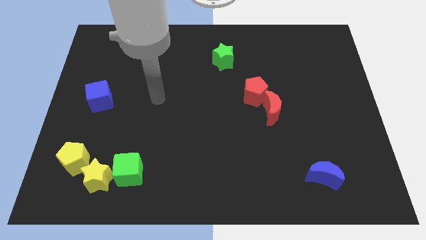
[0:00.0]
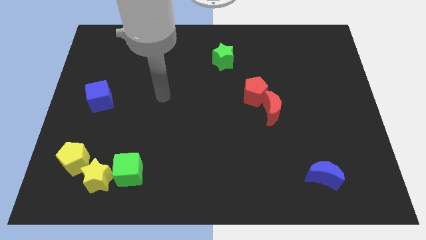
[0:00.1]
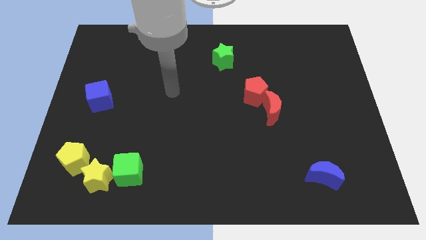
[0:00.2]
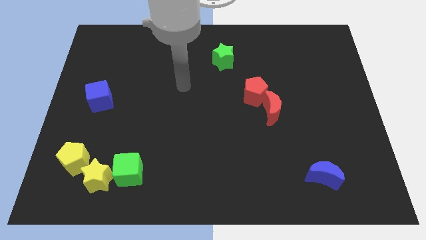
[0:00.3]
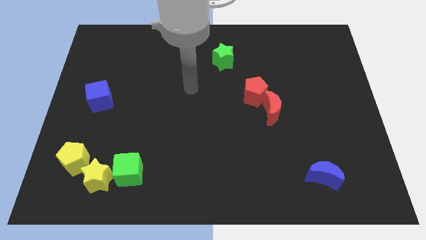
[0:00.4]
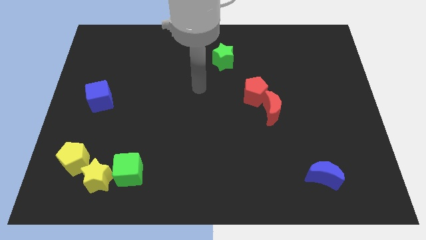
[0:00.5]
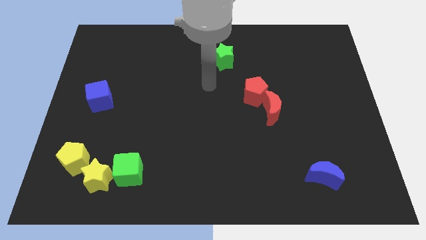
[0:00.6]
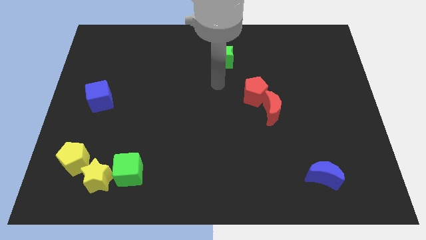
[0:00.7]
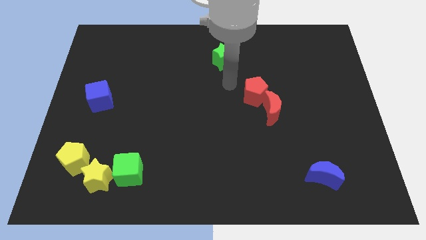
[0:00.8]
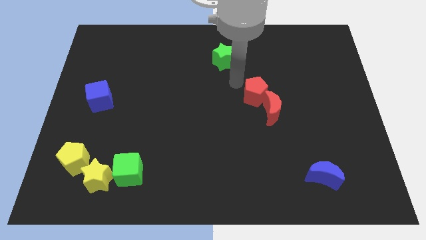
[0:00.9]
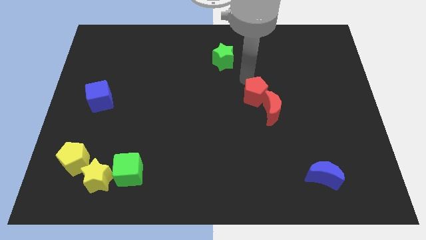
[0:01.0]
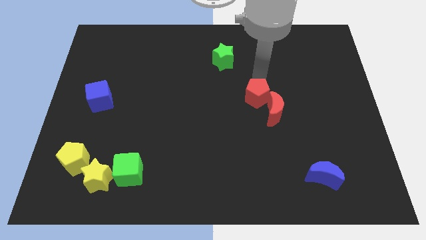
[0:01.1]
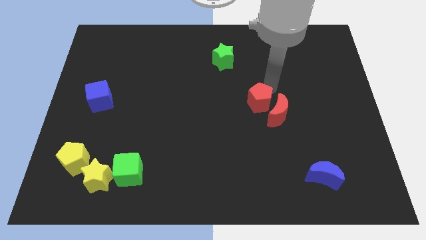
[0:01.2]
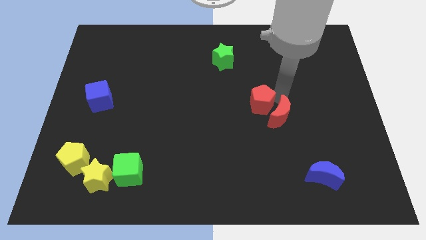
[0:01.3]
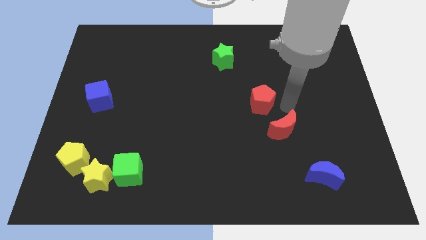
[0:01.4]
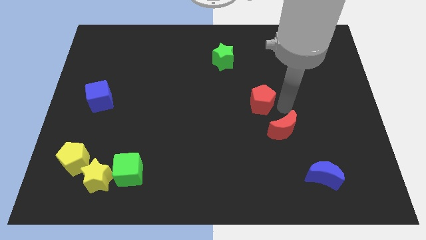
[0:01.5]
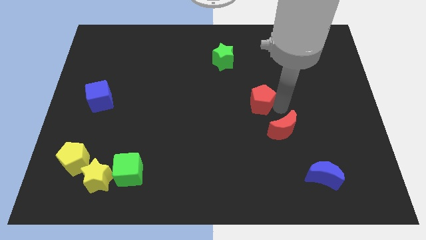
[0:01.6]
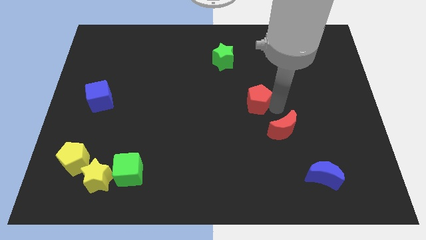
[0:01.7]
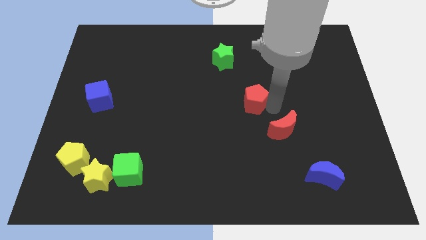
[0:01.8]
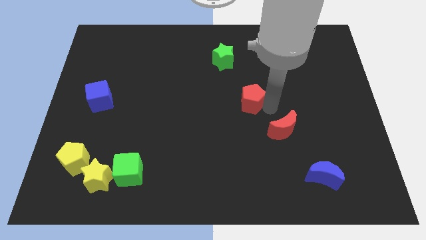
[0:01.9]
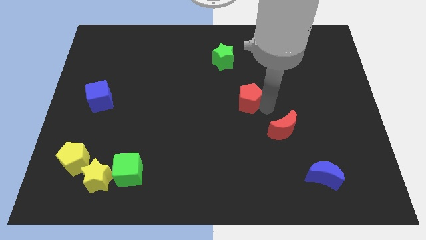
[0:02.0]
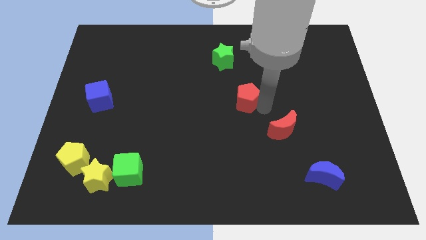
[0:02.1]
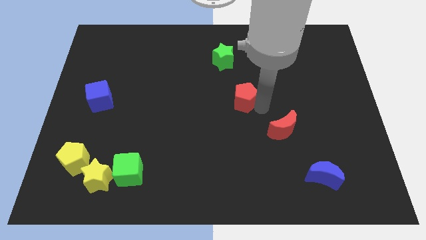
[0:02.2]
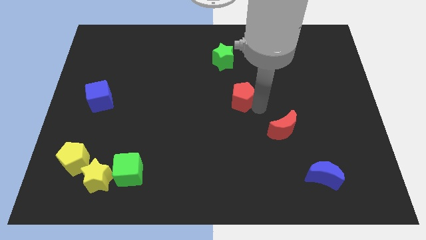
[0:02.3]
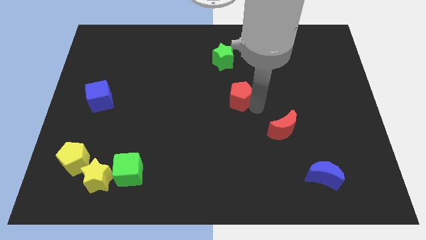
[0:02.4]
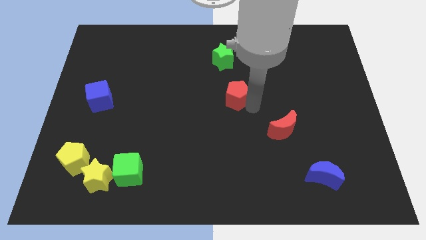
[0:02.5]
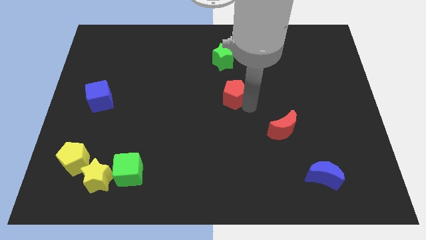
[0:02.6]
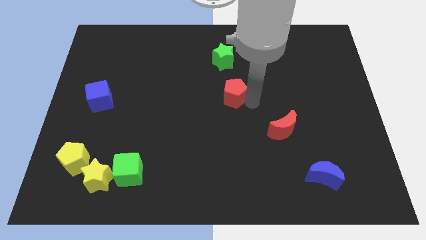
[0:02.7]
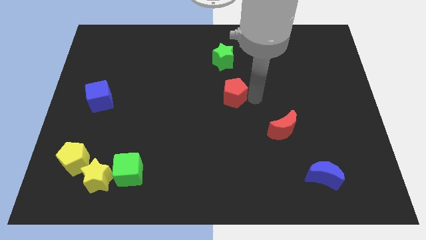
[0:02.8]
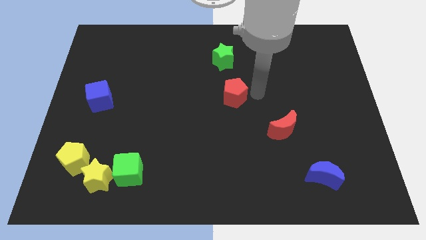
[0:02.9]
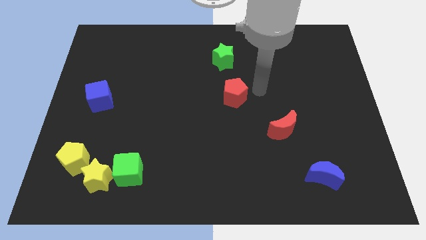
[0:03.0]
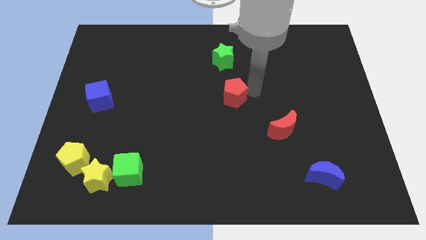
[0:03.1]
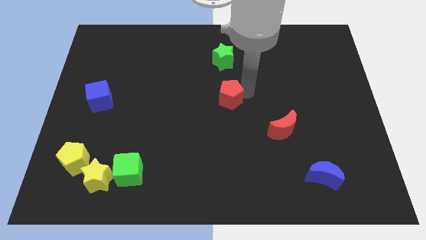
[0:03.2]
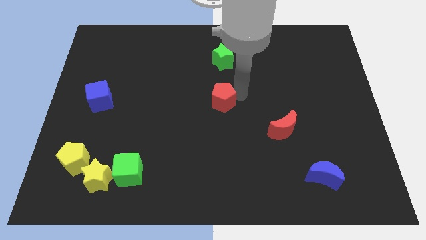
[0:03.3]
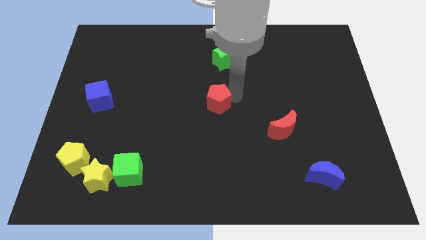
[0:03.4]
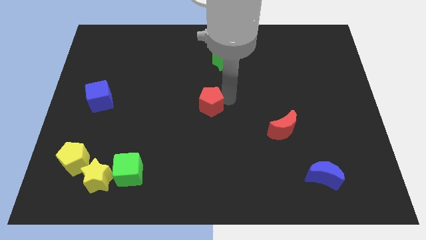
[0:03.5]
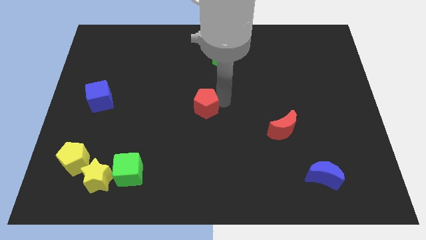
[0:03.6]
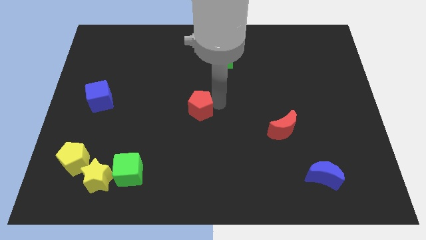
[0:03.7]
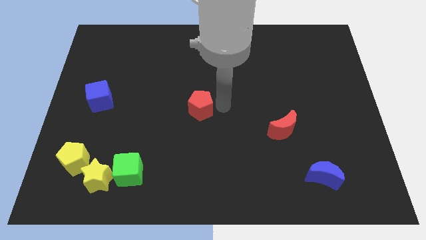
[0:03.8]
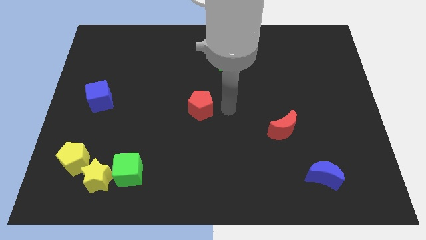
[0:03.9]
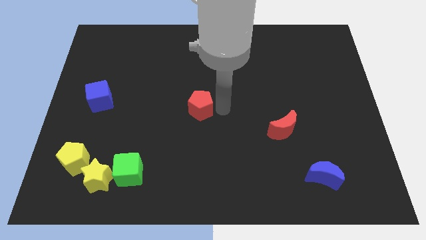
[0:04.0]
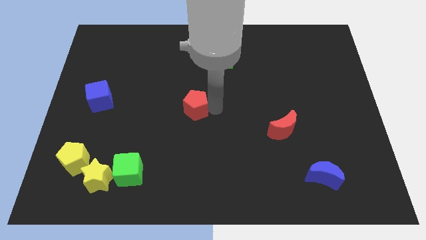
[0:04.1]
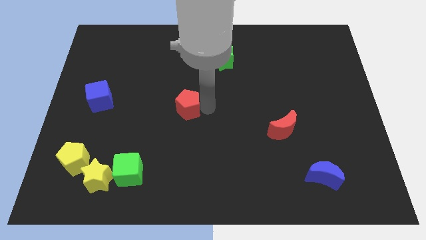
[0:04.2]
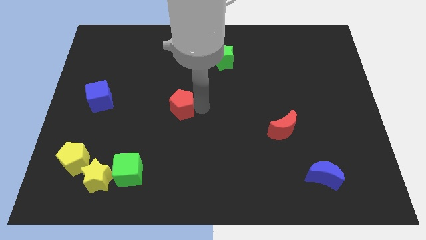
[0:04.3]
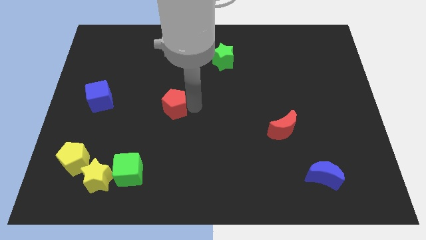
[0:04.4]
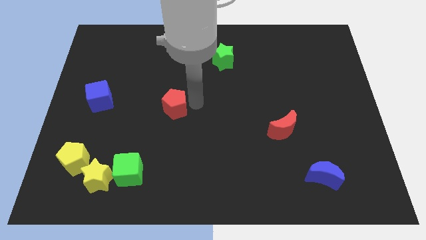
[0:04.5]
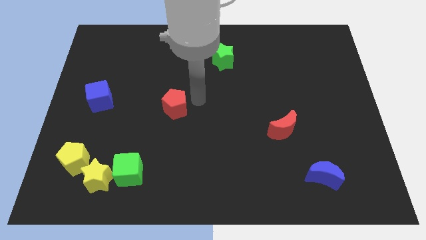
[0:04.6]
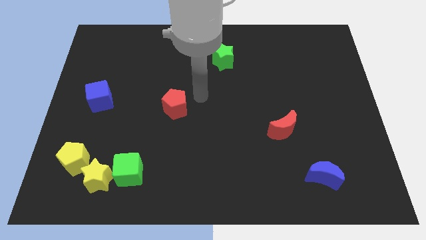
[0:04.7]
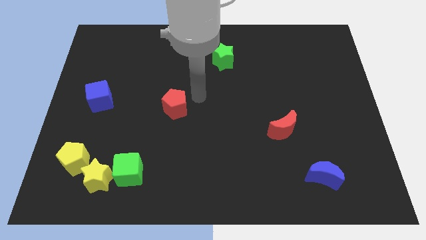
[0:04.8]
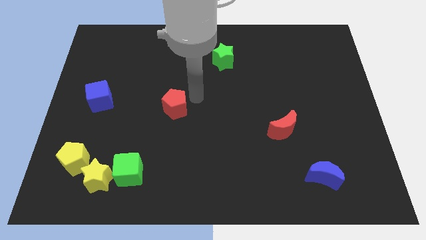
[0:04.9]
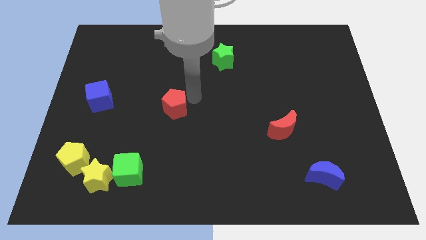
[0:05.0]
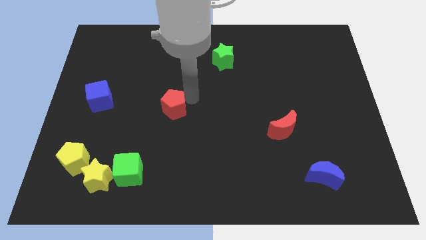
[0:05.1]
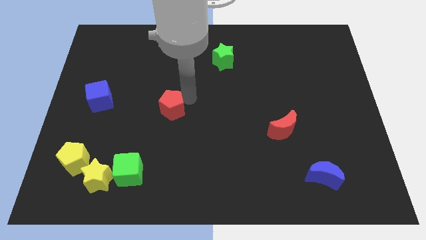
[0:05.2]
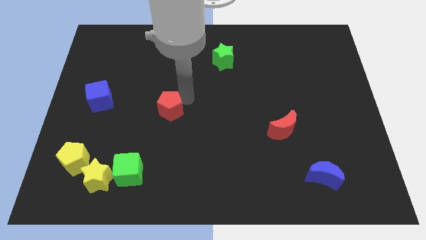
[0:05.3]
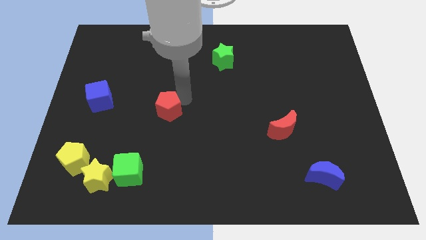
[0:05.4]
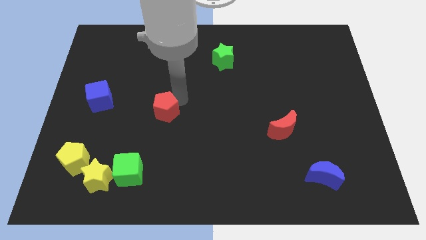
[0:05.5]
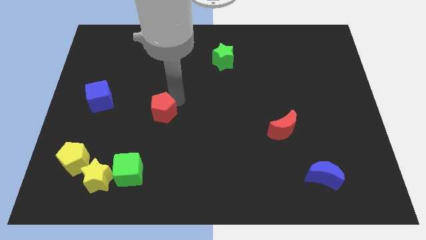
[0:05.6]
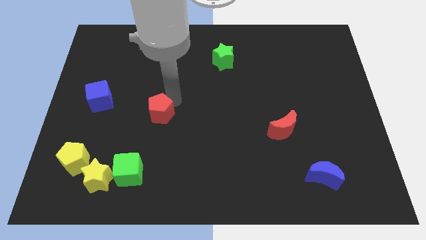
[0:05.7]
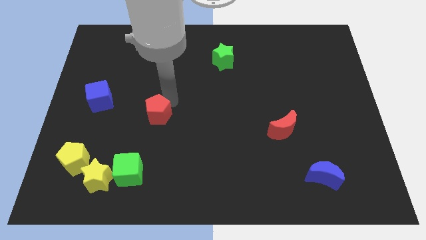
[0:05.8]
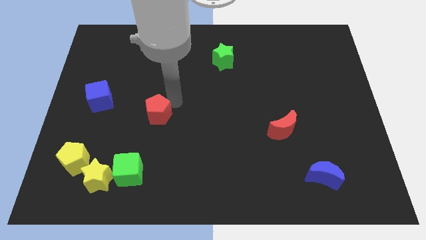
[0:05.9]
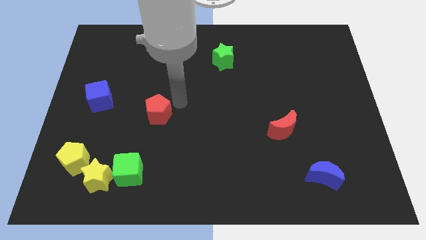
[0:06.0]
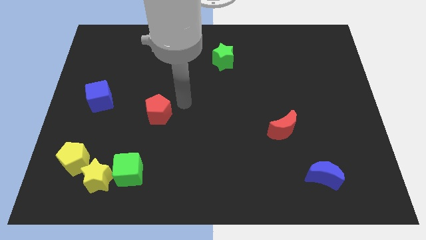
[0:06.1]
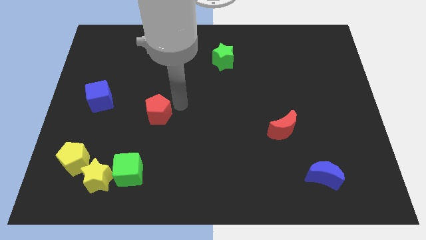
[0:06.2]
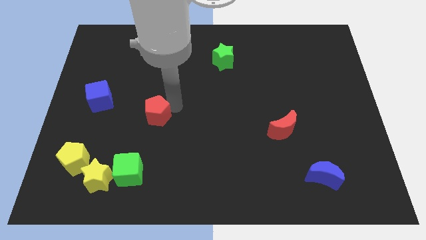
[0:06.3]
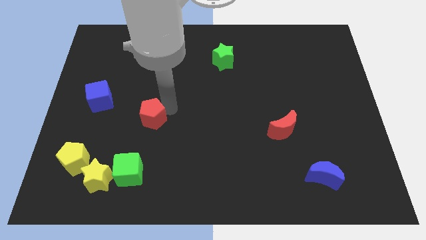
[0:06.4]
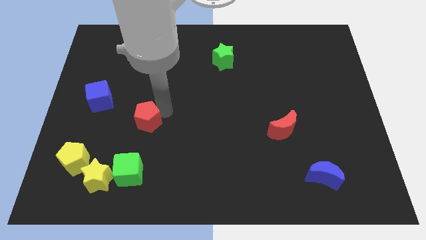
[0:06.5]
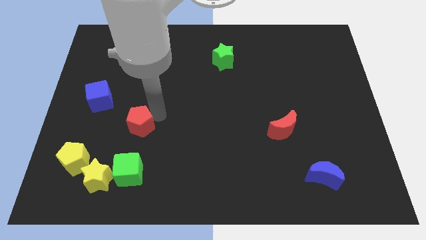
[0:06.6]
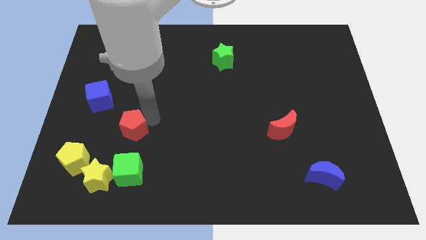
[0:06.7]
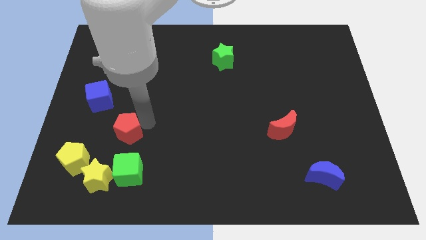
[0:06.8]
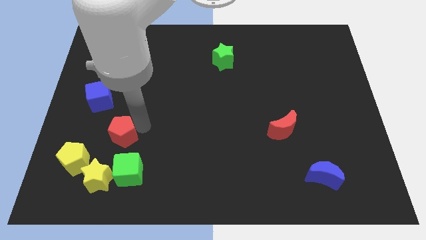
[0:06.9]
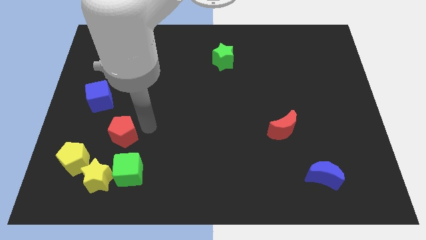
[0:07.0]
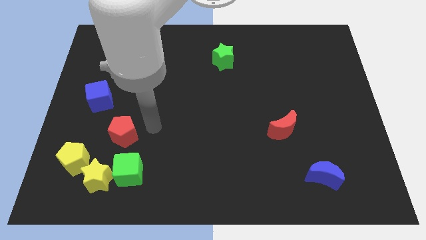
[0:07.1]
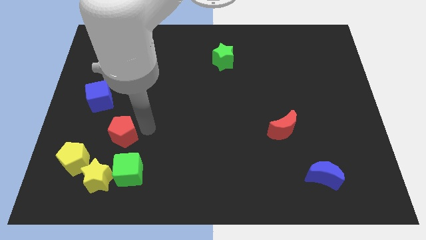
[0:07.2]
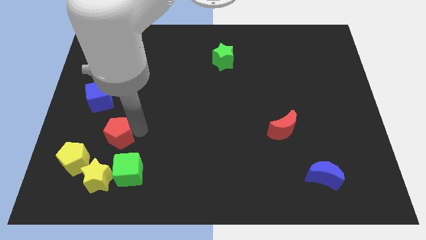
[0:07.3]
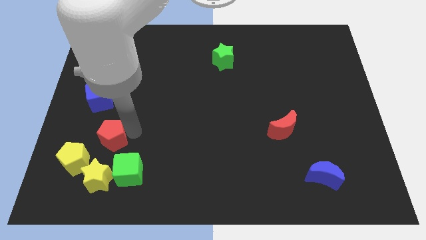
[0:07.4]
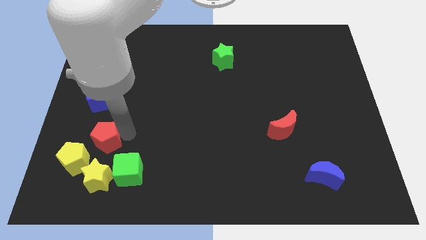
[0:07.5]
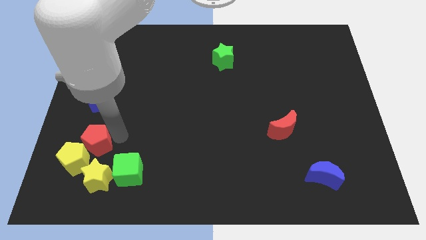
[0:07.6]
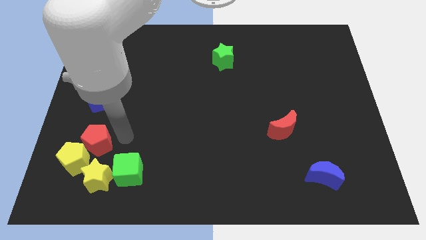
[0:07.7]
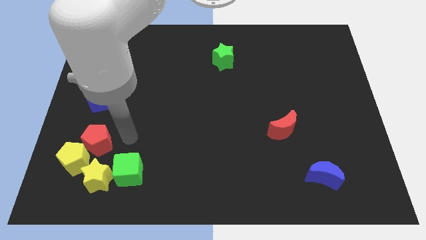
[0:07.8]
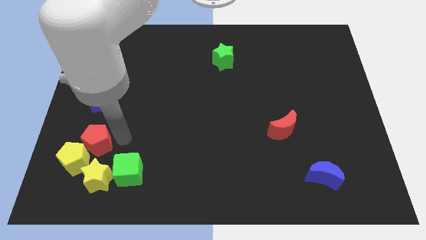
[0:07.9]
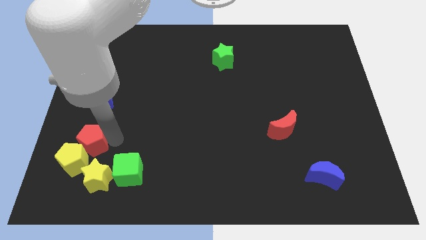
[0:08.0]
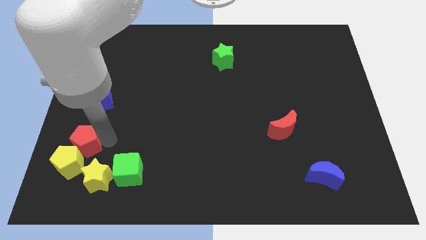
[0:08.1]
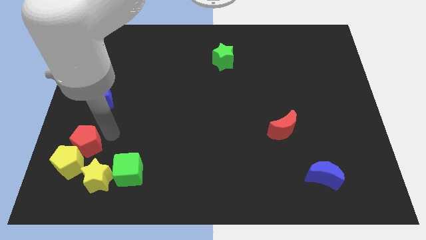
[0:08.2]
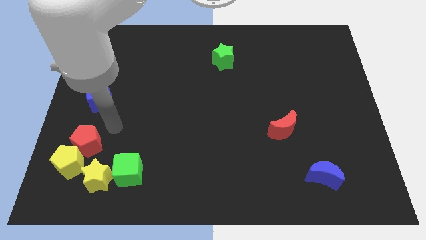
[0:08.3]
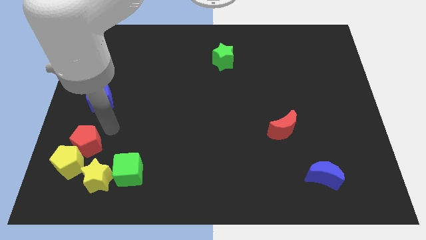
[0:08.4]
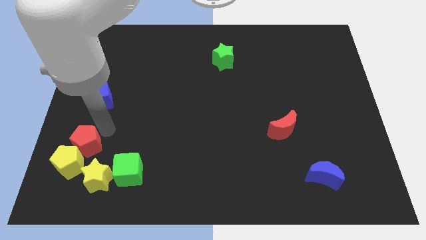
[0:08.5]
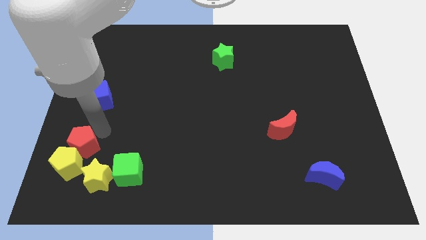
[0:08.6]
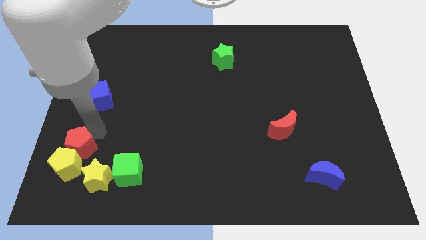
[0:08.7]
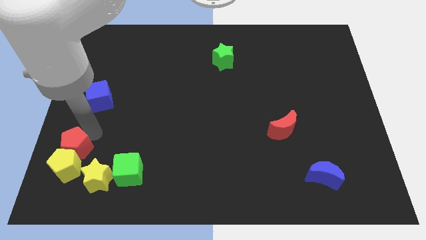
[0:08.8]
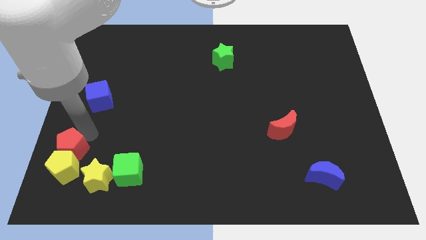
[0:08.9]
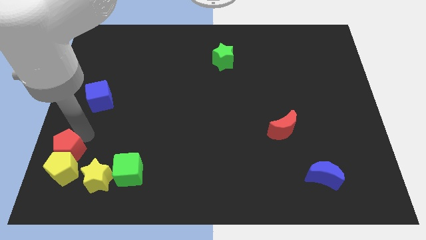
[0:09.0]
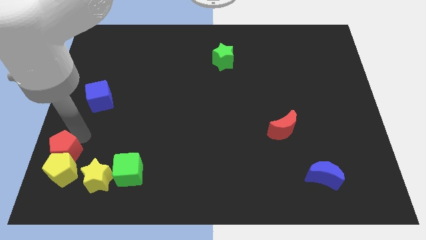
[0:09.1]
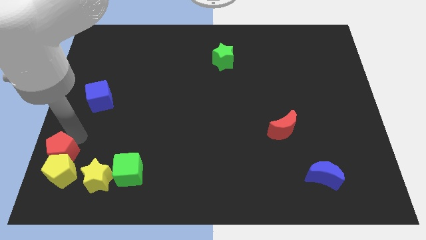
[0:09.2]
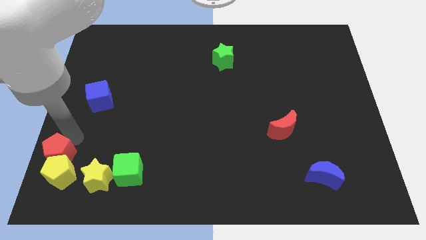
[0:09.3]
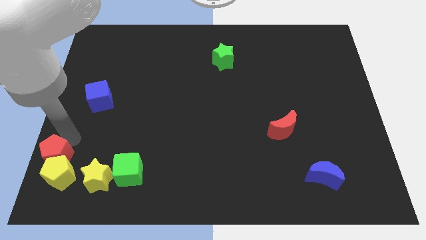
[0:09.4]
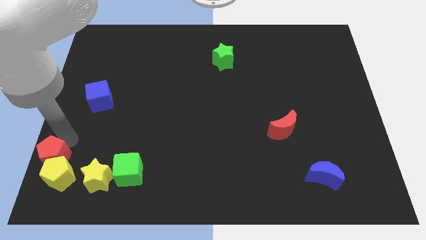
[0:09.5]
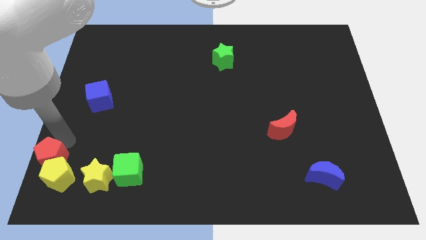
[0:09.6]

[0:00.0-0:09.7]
push the red pentagon to the bottom left corner
